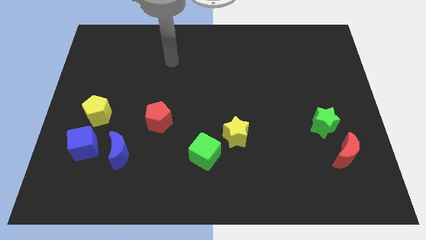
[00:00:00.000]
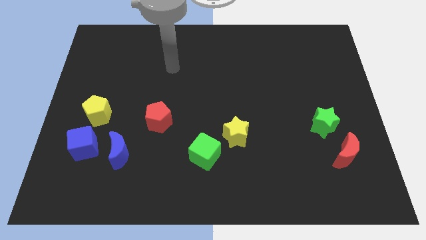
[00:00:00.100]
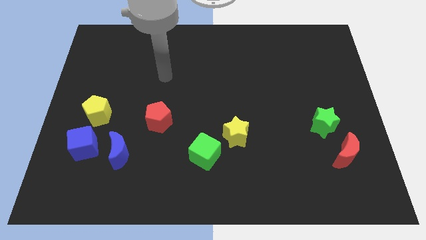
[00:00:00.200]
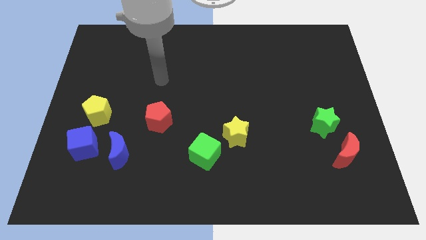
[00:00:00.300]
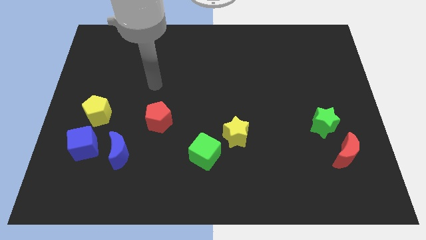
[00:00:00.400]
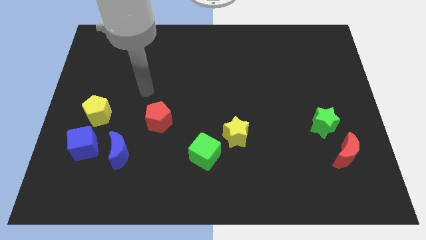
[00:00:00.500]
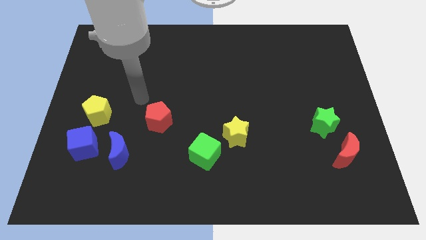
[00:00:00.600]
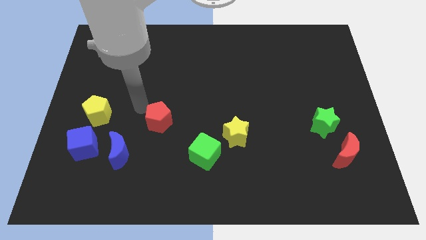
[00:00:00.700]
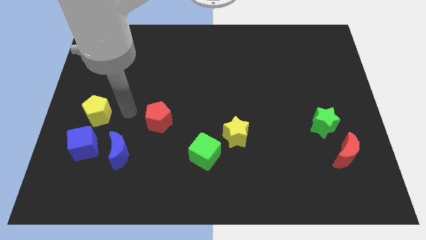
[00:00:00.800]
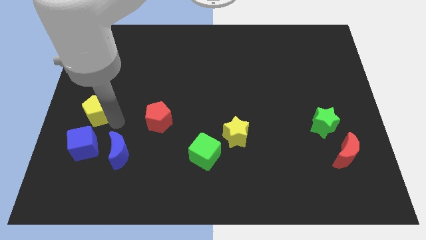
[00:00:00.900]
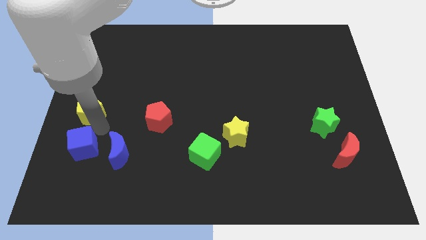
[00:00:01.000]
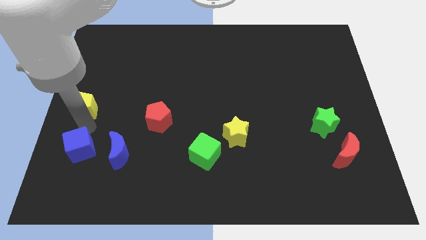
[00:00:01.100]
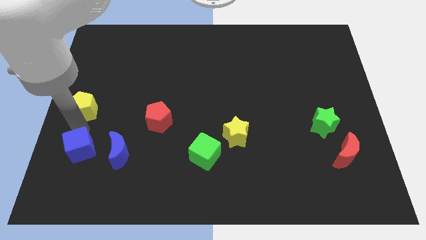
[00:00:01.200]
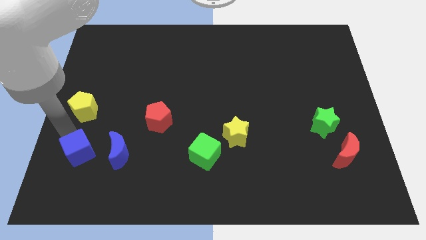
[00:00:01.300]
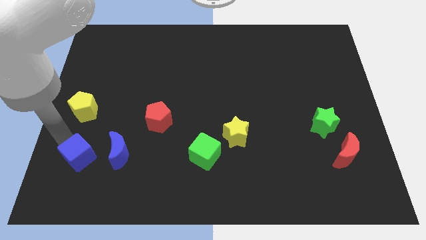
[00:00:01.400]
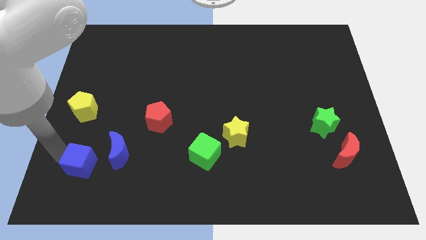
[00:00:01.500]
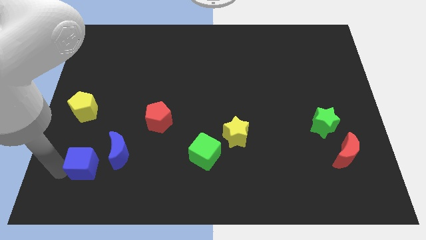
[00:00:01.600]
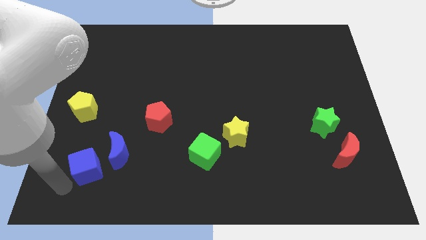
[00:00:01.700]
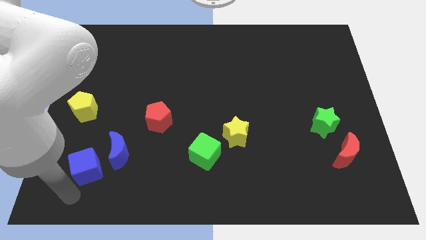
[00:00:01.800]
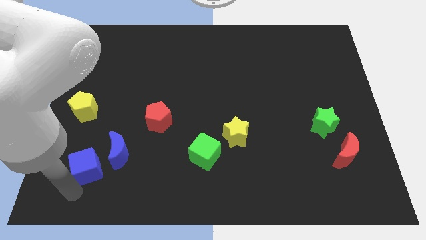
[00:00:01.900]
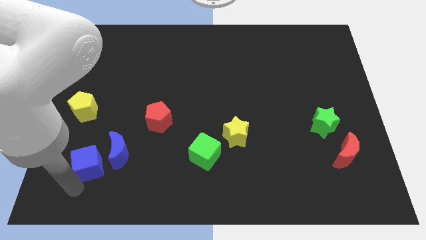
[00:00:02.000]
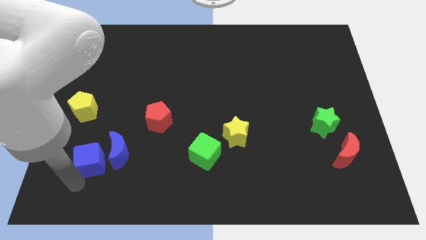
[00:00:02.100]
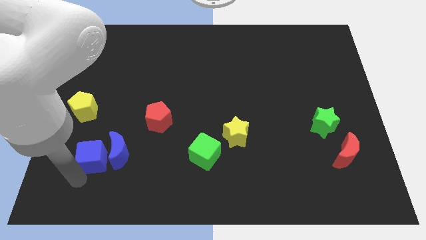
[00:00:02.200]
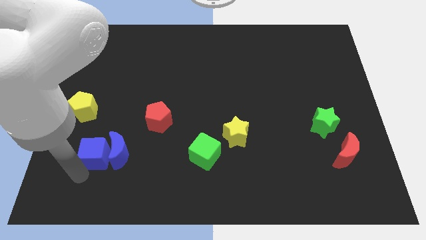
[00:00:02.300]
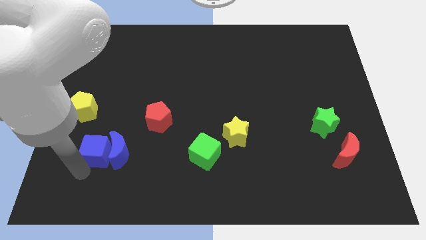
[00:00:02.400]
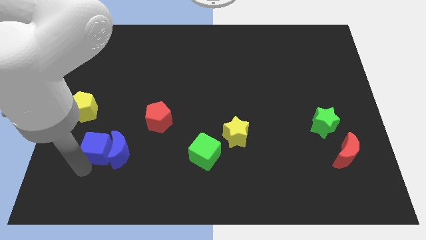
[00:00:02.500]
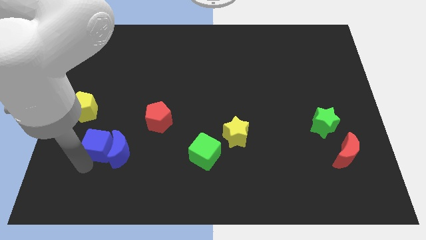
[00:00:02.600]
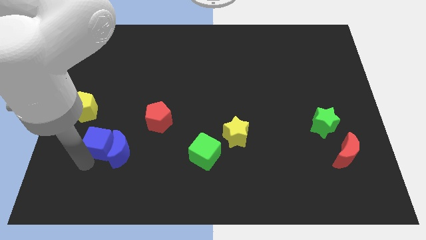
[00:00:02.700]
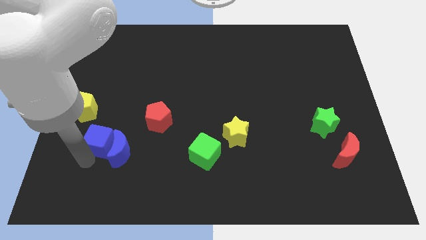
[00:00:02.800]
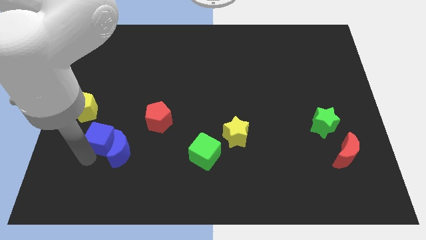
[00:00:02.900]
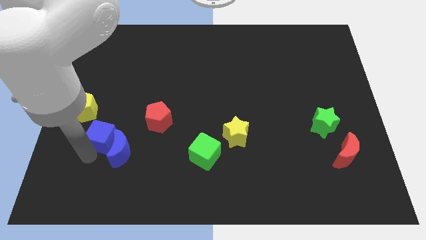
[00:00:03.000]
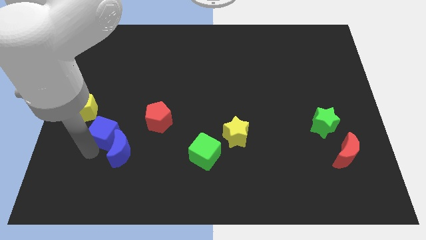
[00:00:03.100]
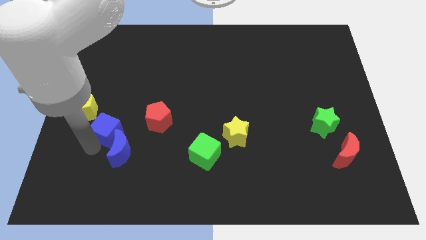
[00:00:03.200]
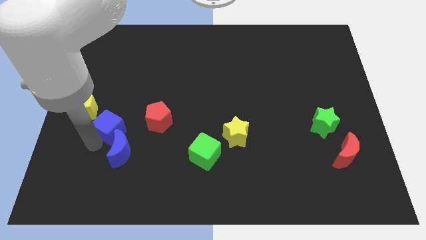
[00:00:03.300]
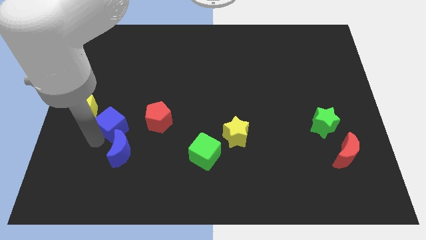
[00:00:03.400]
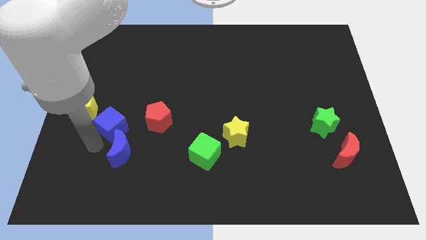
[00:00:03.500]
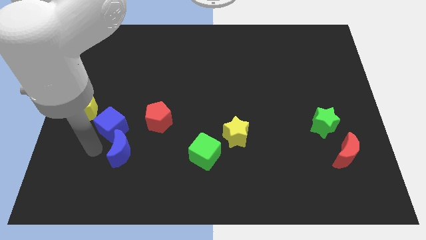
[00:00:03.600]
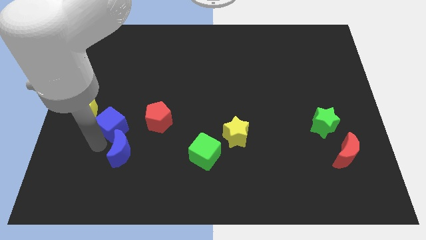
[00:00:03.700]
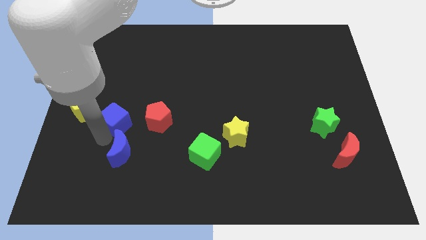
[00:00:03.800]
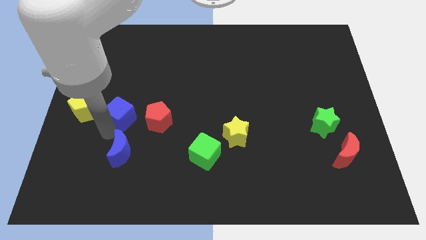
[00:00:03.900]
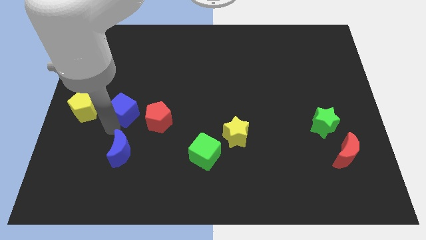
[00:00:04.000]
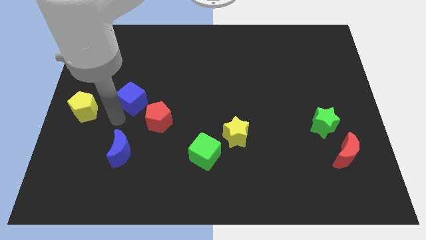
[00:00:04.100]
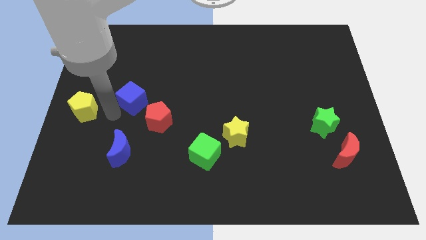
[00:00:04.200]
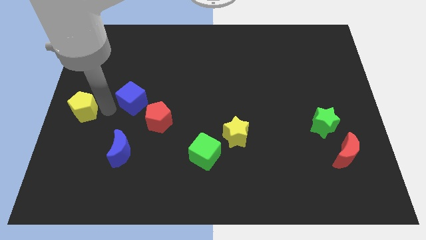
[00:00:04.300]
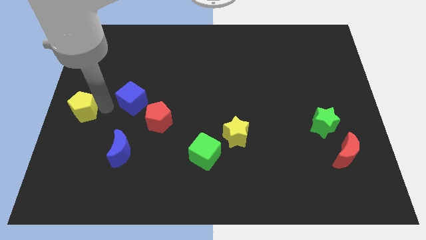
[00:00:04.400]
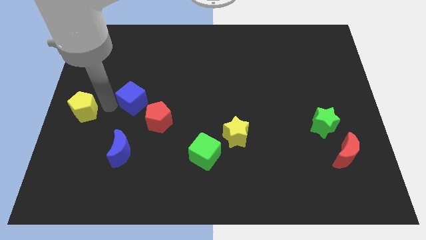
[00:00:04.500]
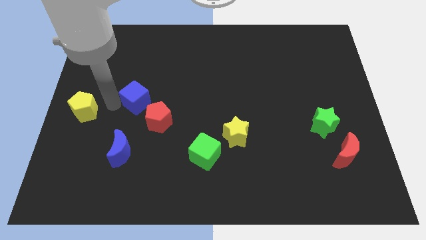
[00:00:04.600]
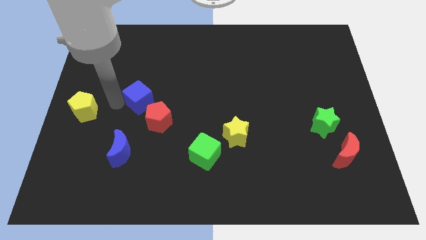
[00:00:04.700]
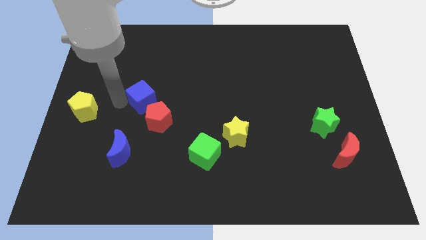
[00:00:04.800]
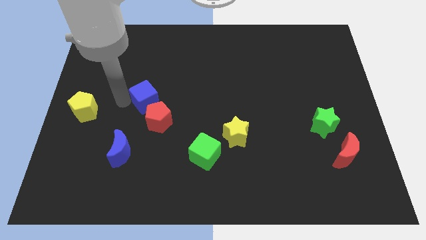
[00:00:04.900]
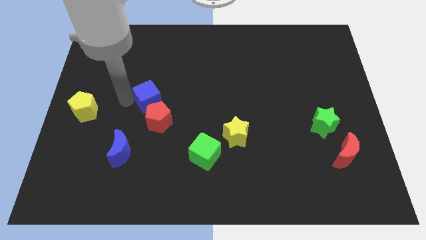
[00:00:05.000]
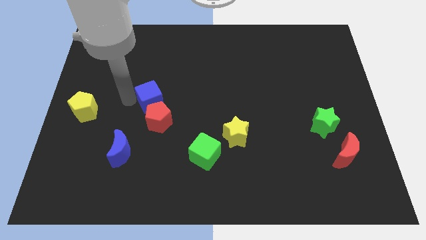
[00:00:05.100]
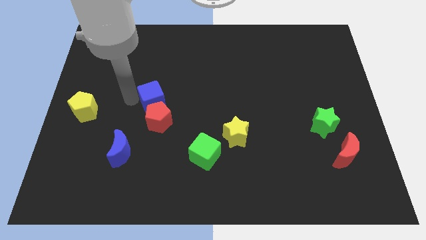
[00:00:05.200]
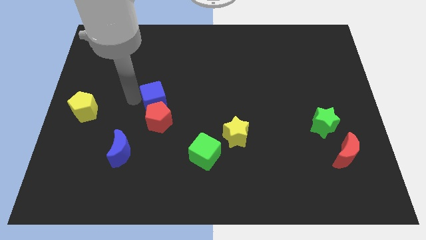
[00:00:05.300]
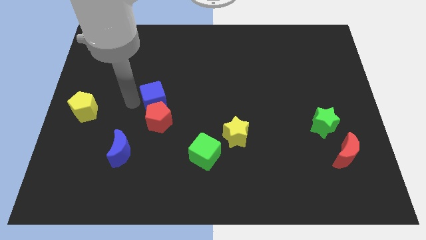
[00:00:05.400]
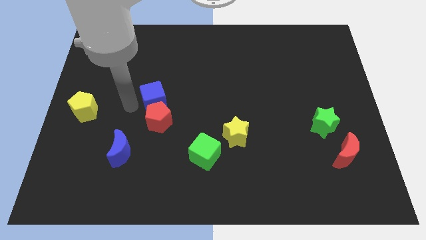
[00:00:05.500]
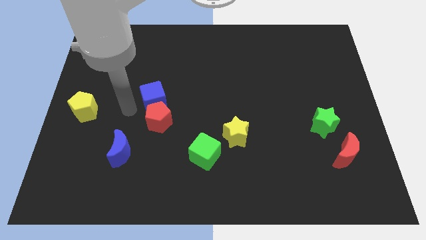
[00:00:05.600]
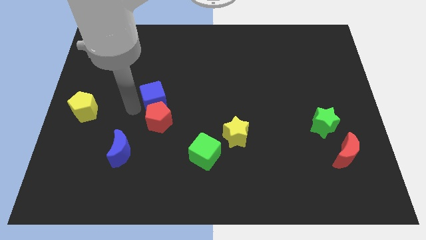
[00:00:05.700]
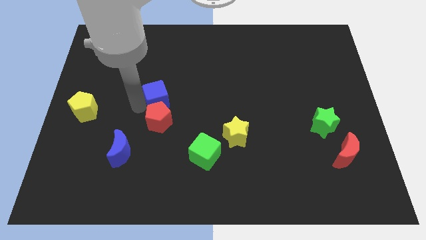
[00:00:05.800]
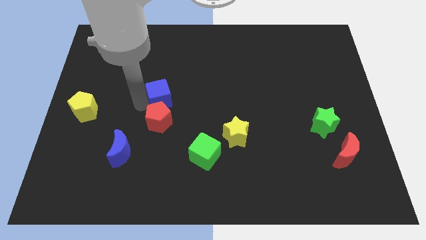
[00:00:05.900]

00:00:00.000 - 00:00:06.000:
push the blue cube to the middle

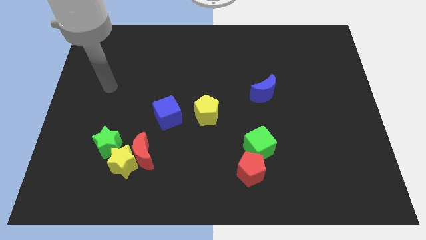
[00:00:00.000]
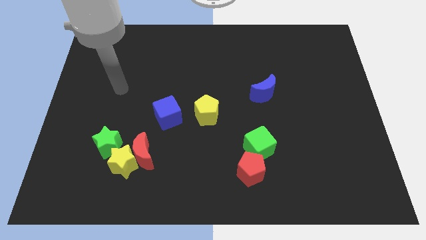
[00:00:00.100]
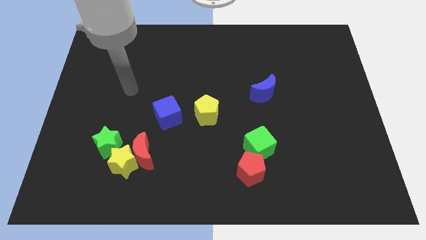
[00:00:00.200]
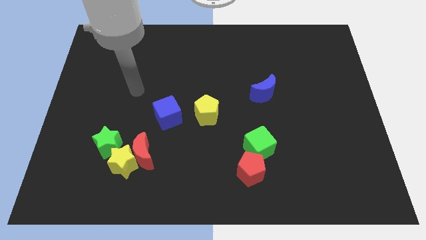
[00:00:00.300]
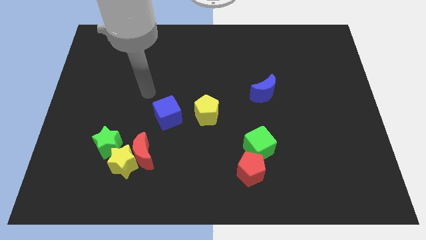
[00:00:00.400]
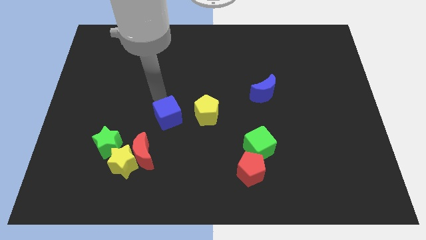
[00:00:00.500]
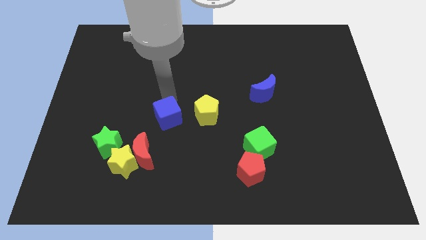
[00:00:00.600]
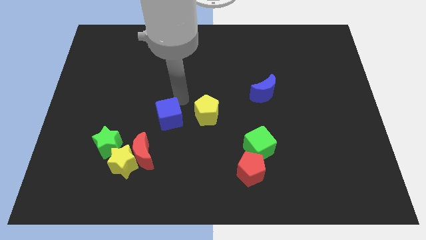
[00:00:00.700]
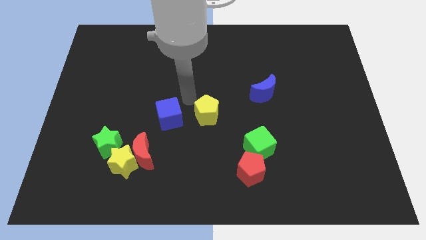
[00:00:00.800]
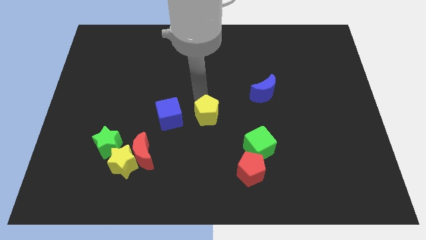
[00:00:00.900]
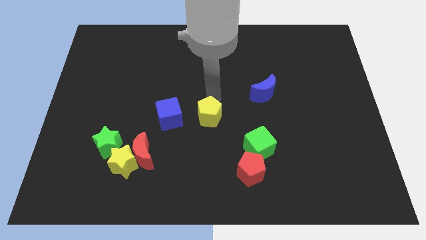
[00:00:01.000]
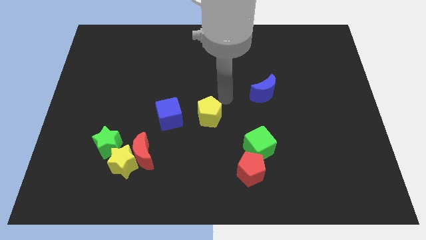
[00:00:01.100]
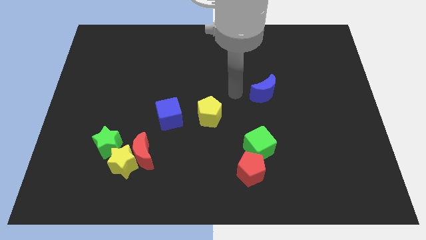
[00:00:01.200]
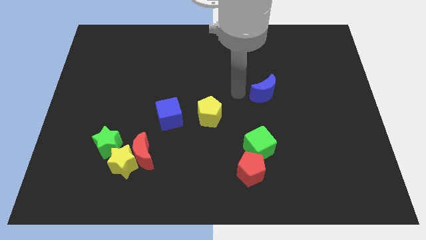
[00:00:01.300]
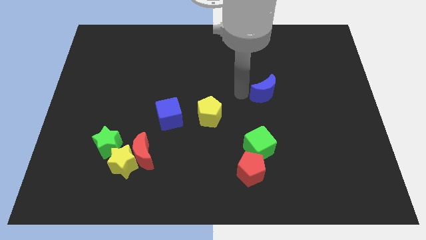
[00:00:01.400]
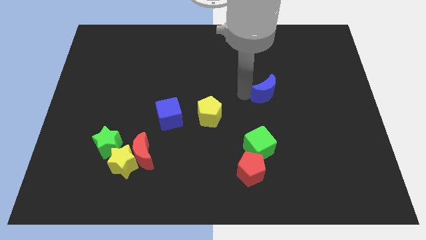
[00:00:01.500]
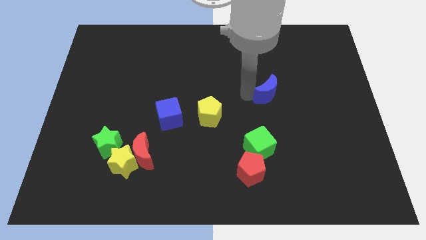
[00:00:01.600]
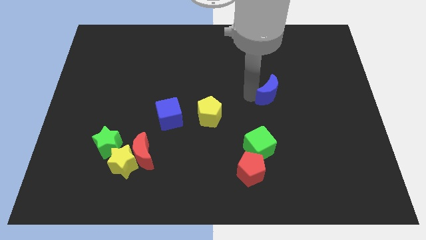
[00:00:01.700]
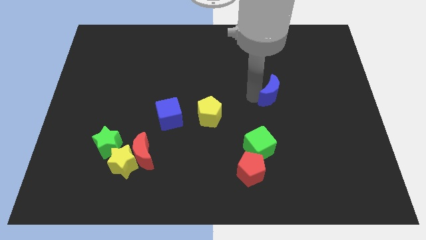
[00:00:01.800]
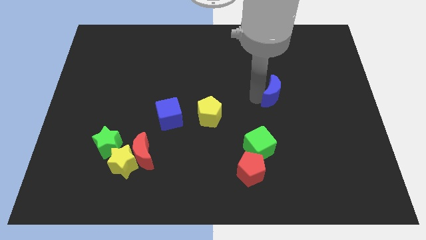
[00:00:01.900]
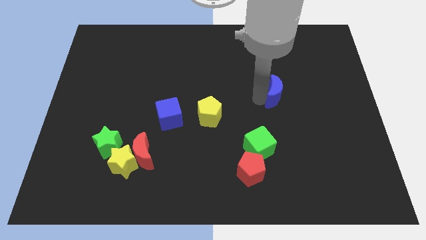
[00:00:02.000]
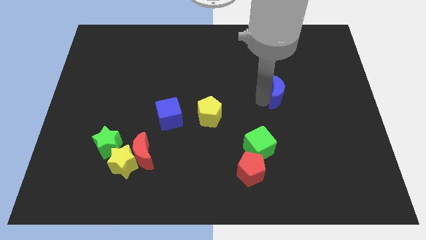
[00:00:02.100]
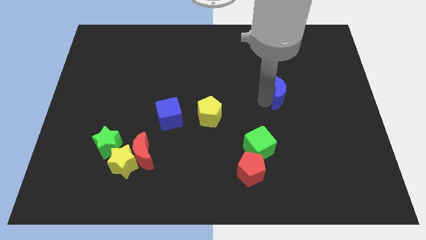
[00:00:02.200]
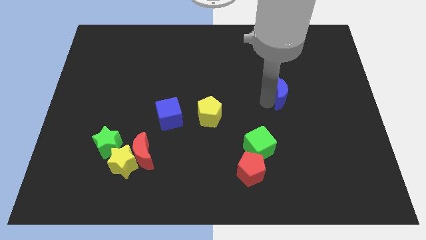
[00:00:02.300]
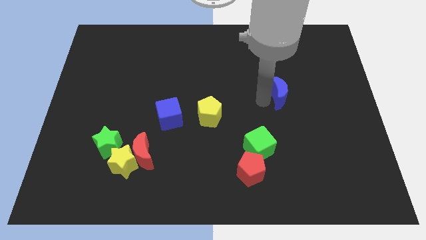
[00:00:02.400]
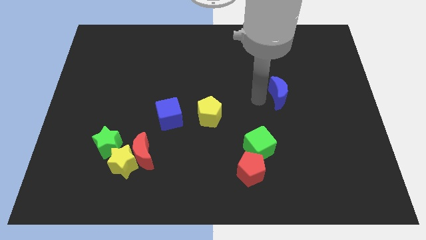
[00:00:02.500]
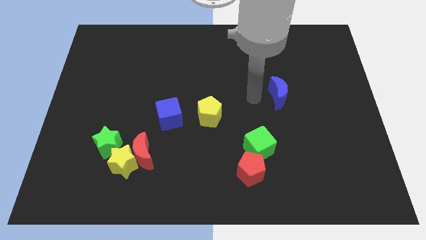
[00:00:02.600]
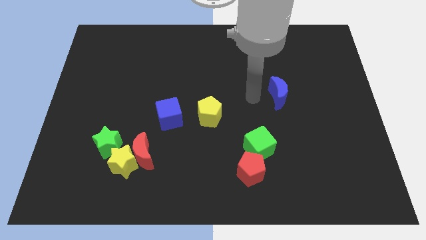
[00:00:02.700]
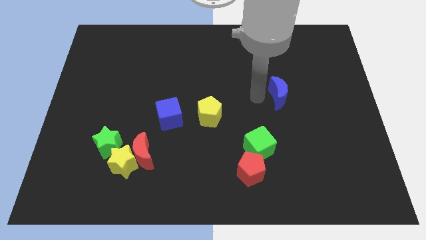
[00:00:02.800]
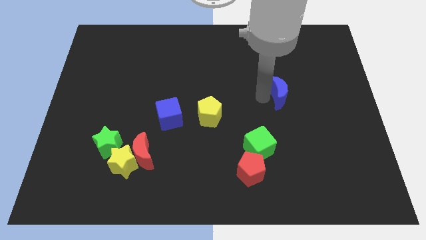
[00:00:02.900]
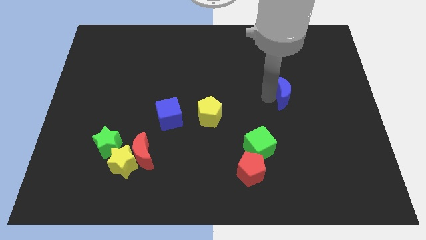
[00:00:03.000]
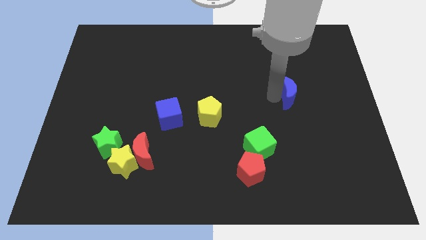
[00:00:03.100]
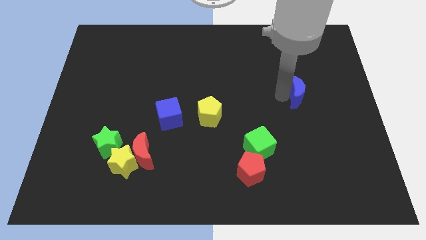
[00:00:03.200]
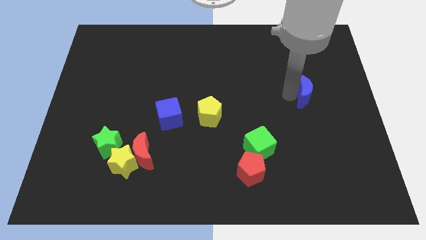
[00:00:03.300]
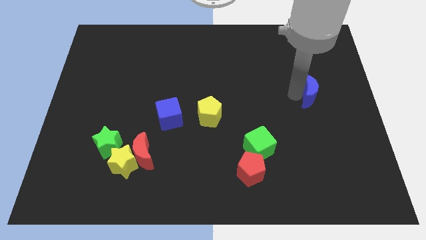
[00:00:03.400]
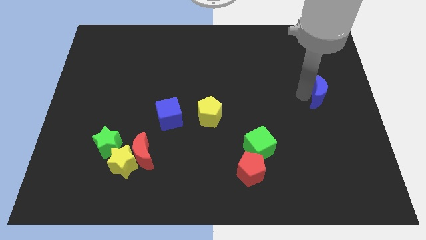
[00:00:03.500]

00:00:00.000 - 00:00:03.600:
slide the blue moon to the right side of the board
